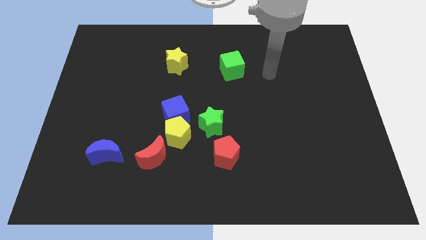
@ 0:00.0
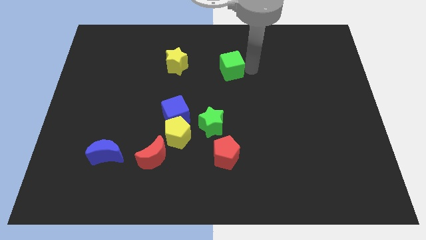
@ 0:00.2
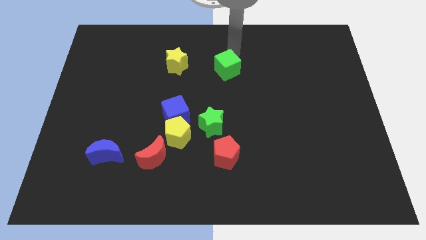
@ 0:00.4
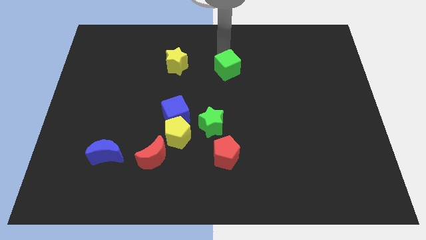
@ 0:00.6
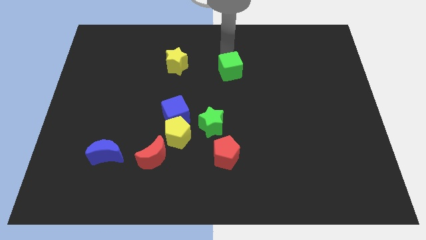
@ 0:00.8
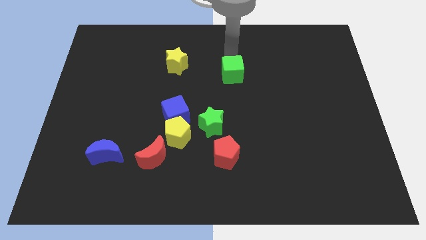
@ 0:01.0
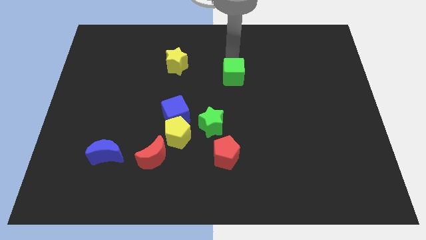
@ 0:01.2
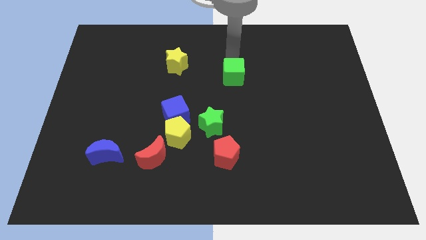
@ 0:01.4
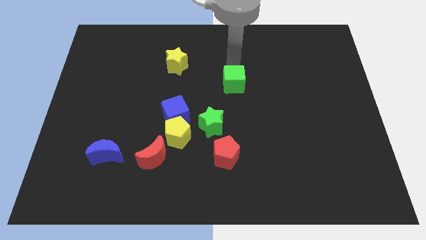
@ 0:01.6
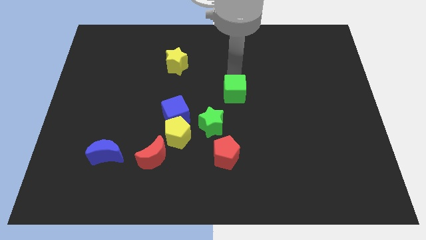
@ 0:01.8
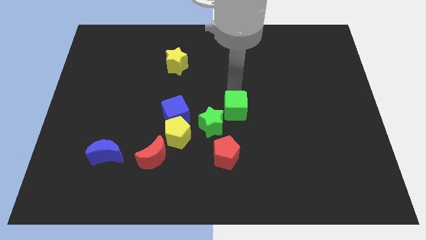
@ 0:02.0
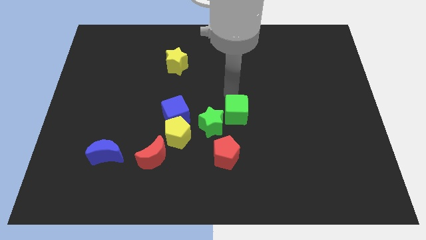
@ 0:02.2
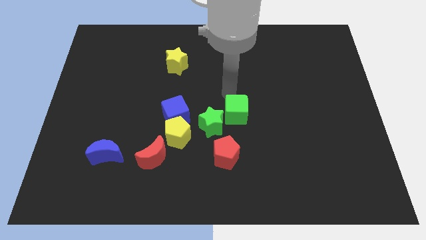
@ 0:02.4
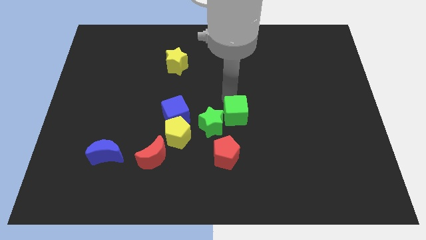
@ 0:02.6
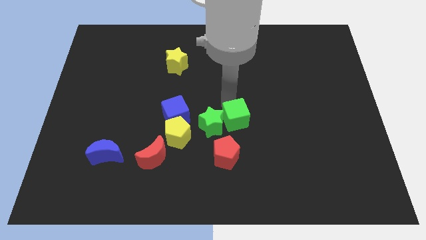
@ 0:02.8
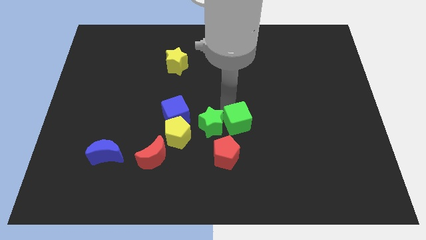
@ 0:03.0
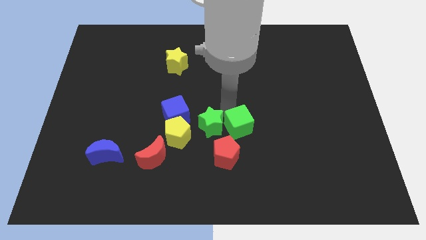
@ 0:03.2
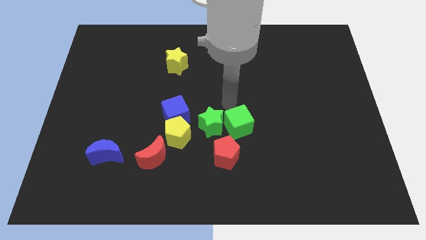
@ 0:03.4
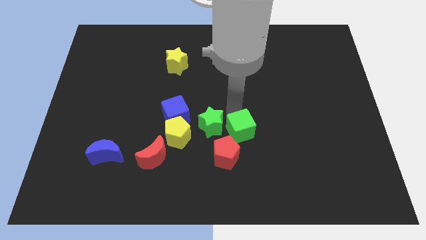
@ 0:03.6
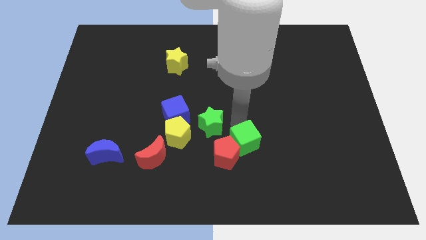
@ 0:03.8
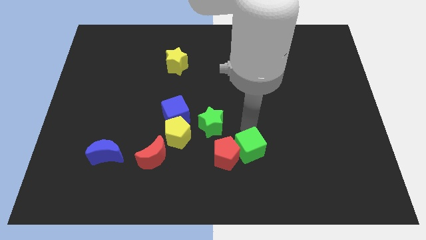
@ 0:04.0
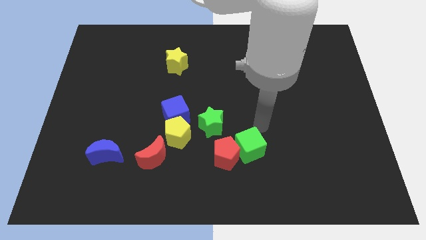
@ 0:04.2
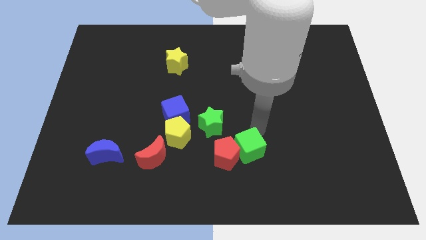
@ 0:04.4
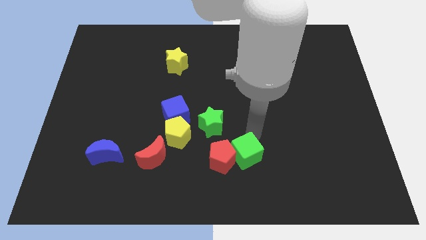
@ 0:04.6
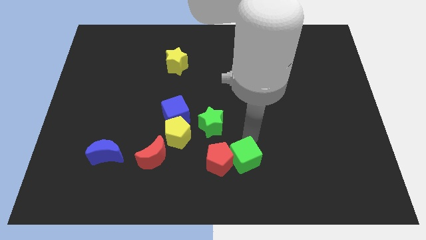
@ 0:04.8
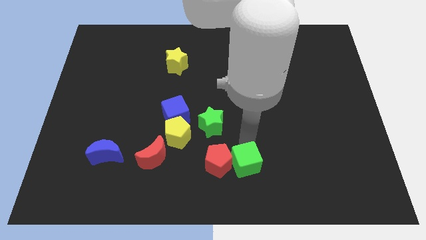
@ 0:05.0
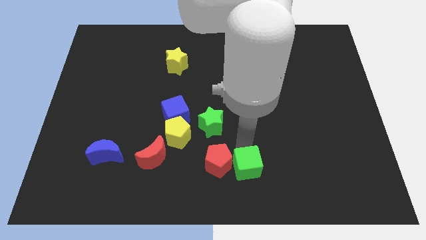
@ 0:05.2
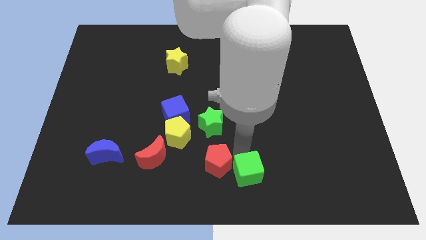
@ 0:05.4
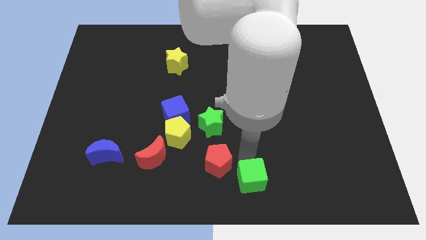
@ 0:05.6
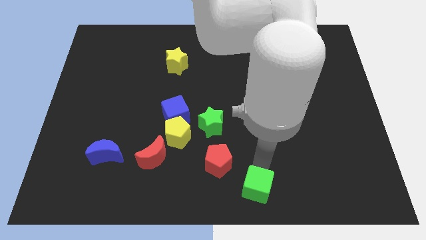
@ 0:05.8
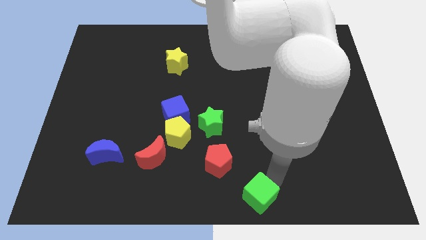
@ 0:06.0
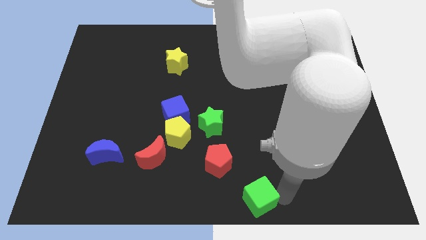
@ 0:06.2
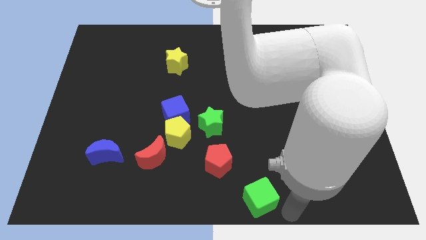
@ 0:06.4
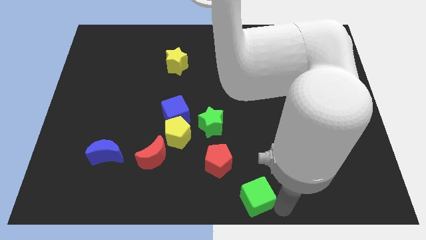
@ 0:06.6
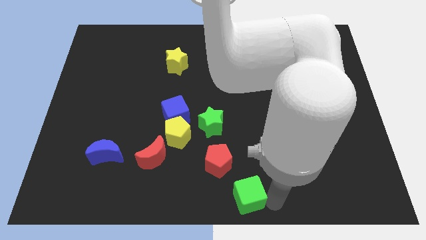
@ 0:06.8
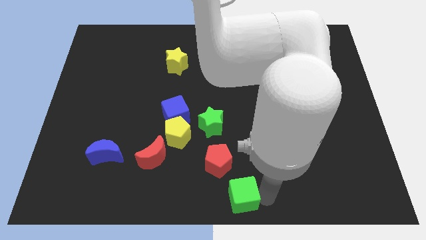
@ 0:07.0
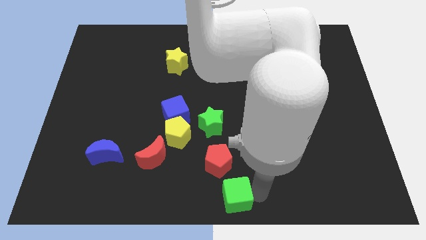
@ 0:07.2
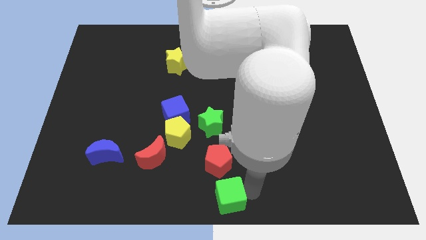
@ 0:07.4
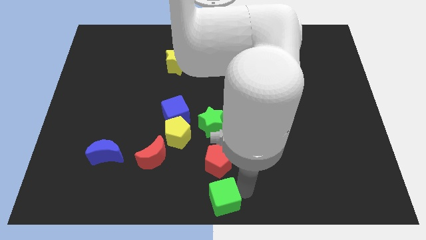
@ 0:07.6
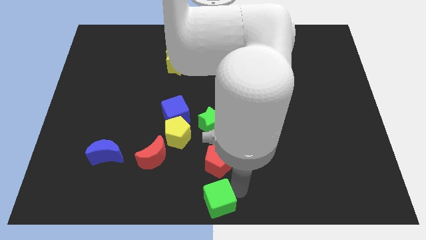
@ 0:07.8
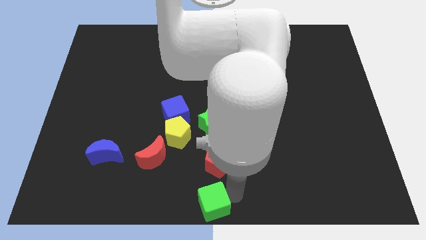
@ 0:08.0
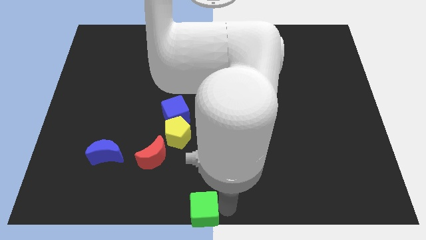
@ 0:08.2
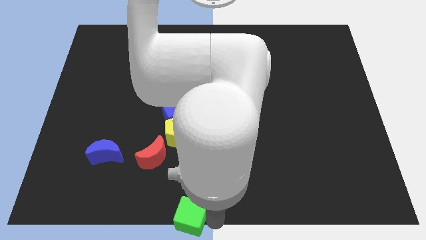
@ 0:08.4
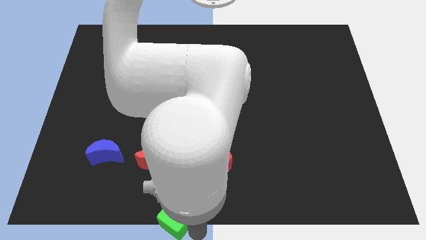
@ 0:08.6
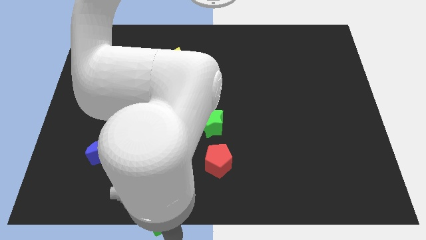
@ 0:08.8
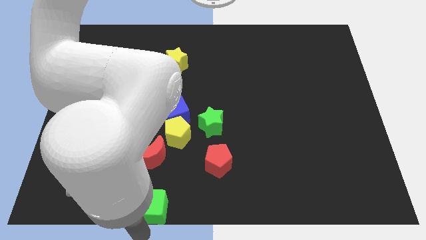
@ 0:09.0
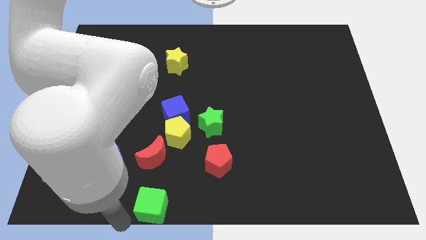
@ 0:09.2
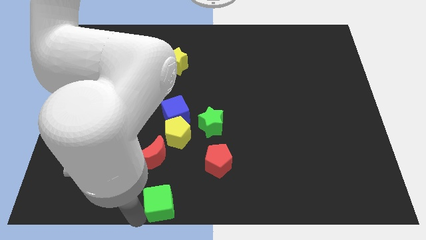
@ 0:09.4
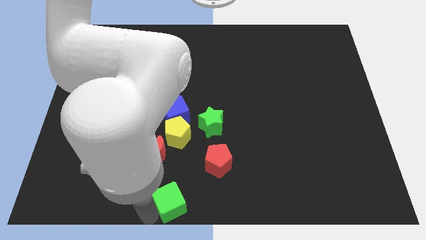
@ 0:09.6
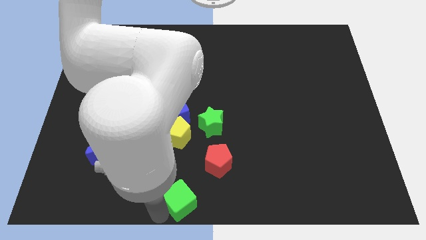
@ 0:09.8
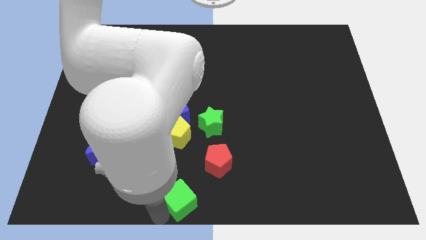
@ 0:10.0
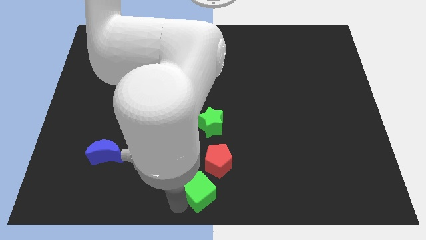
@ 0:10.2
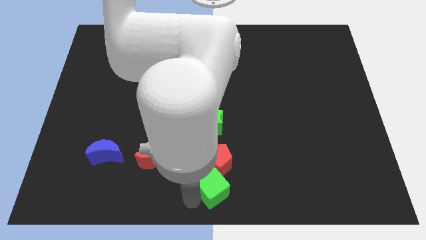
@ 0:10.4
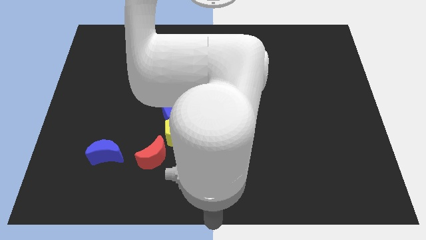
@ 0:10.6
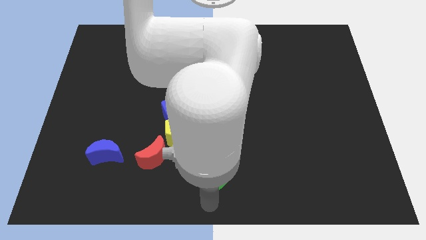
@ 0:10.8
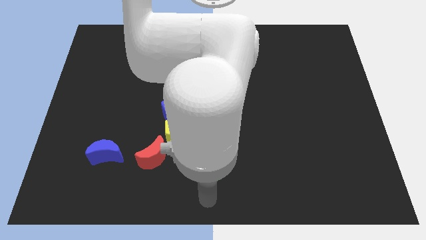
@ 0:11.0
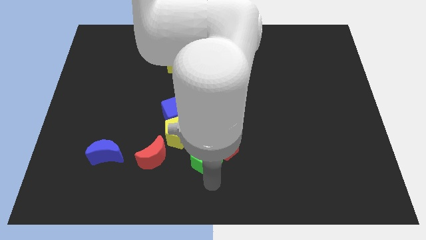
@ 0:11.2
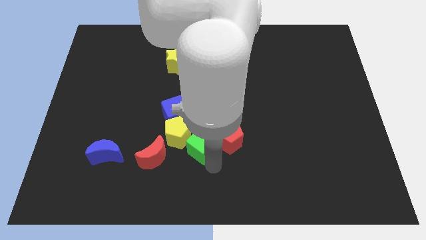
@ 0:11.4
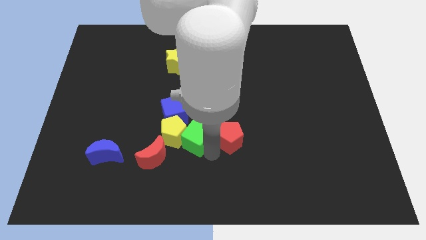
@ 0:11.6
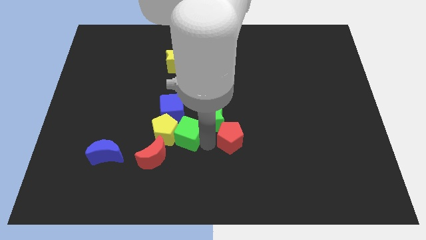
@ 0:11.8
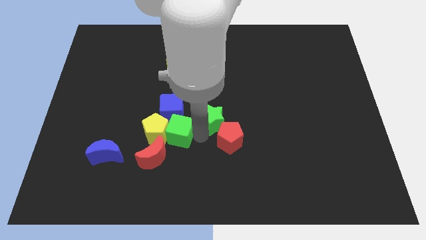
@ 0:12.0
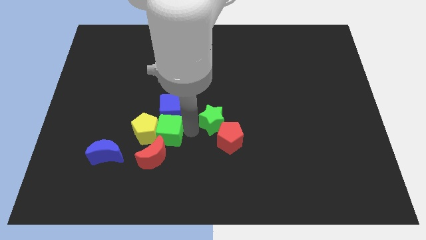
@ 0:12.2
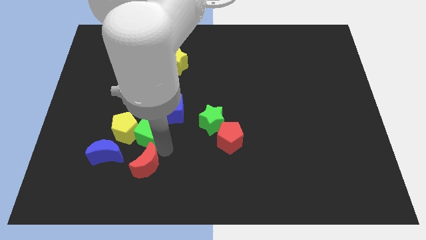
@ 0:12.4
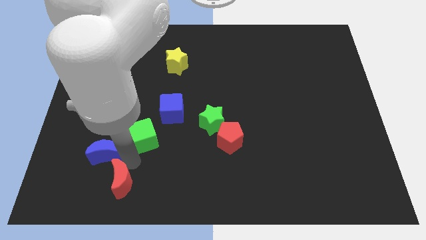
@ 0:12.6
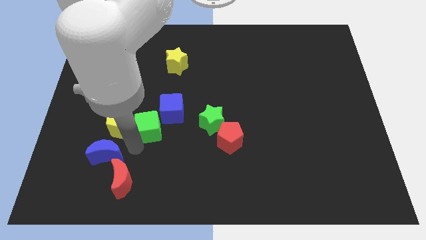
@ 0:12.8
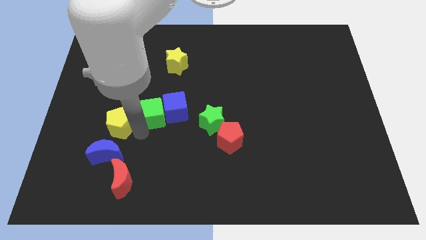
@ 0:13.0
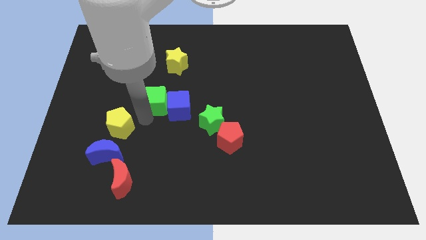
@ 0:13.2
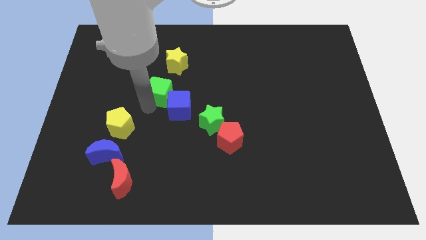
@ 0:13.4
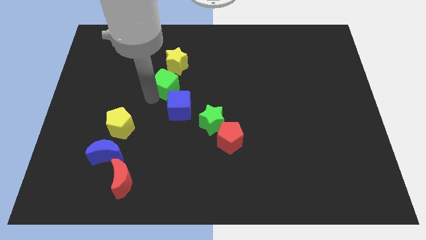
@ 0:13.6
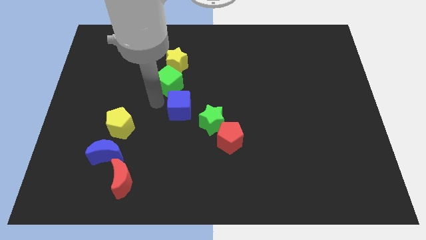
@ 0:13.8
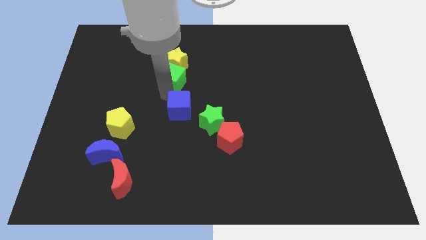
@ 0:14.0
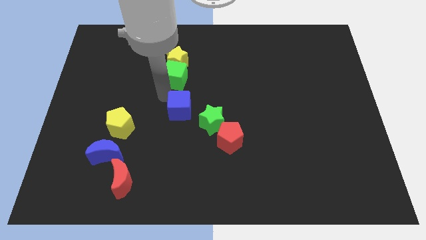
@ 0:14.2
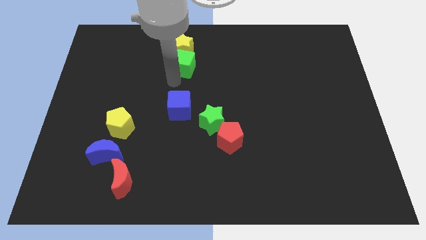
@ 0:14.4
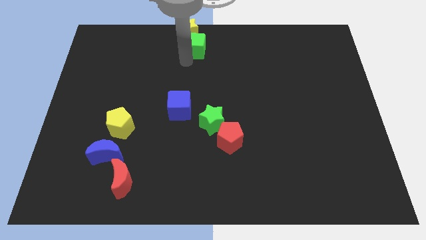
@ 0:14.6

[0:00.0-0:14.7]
move the green cube to the towards your base
